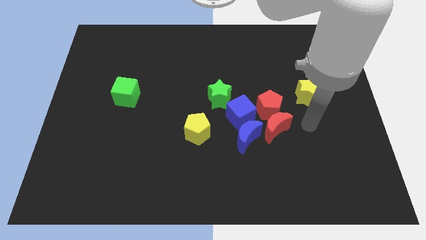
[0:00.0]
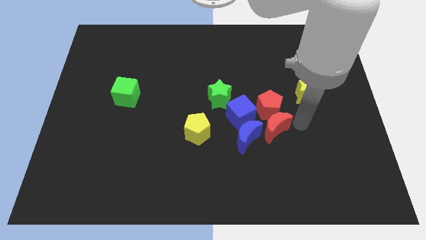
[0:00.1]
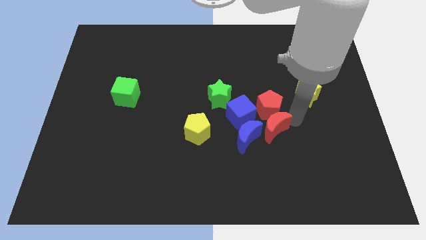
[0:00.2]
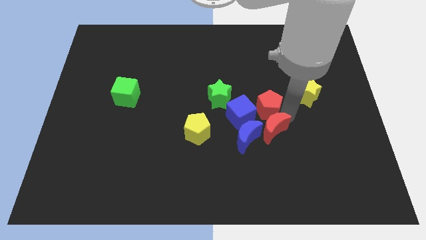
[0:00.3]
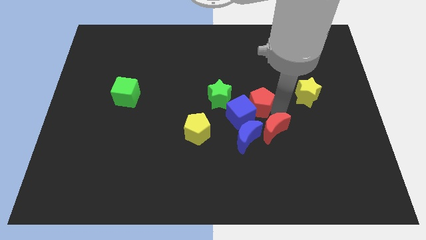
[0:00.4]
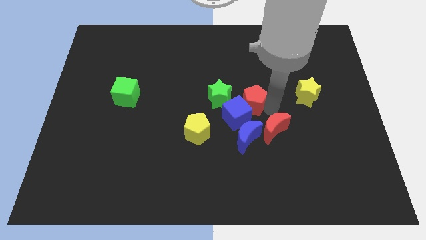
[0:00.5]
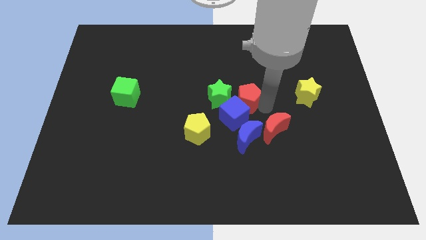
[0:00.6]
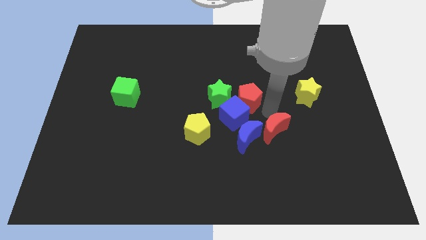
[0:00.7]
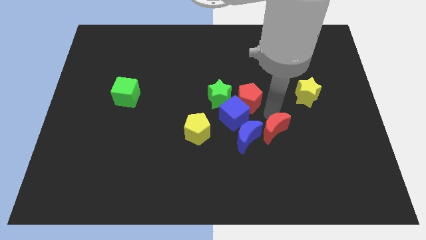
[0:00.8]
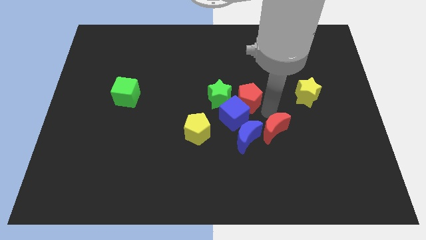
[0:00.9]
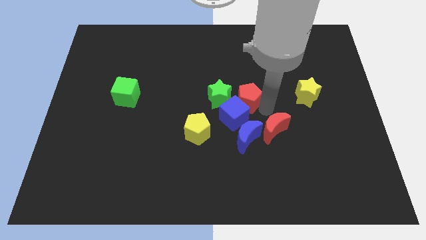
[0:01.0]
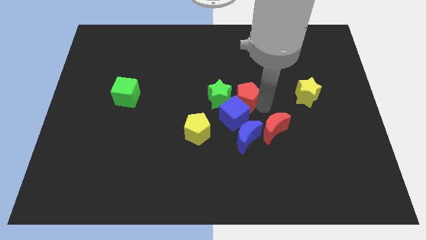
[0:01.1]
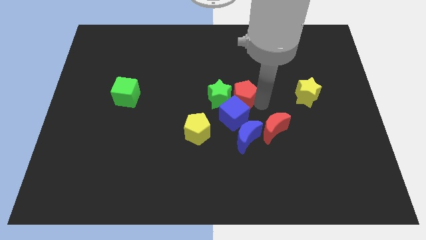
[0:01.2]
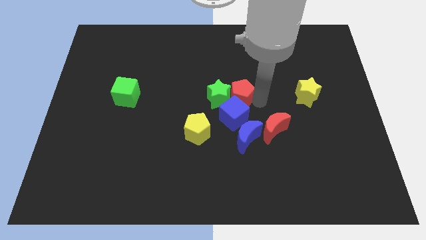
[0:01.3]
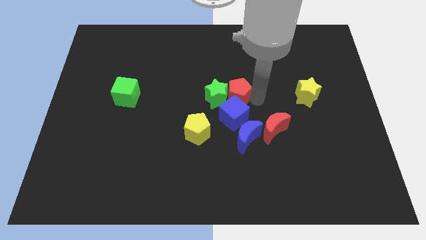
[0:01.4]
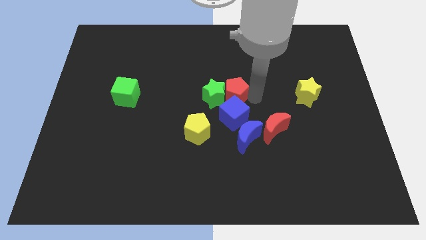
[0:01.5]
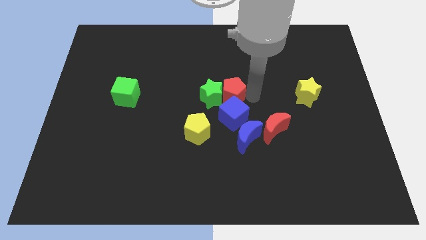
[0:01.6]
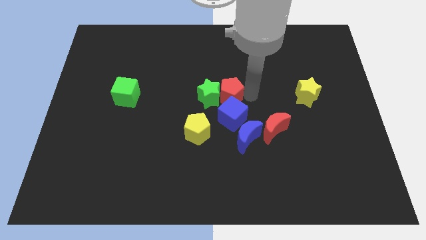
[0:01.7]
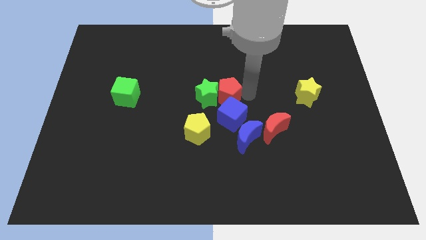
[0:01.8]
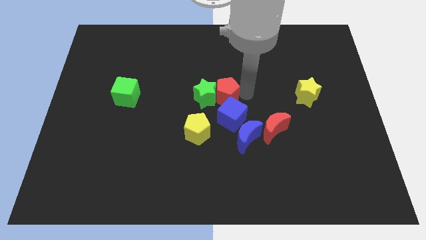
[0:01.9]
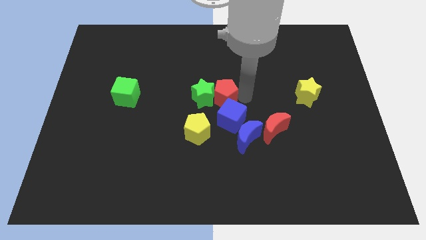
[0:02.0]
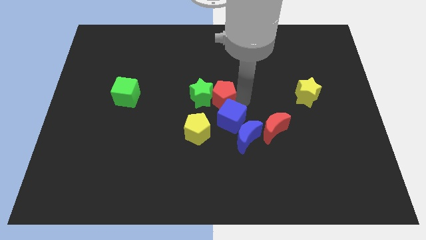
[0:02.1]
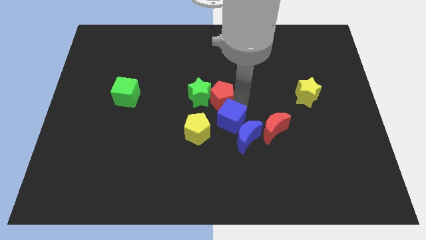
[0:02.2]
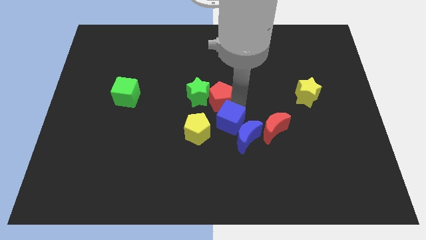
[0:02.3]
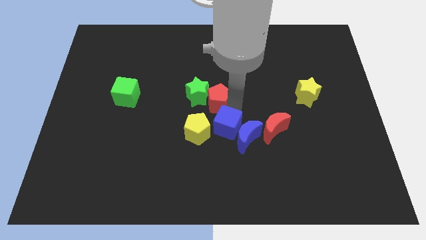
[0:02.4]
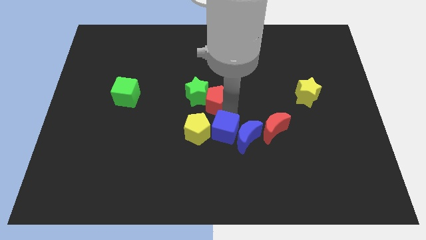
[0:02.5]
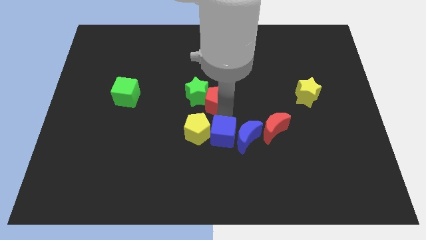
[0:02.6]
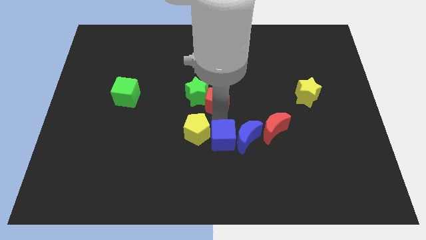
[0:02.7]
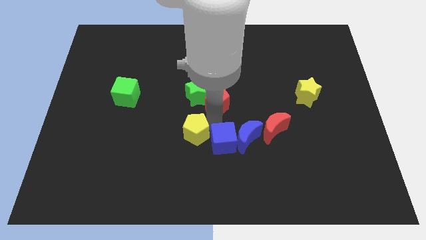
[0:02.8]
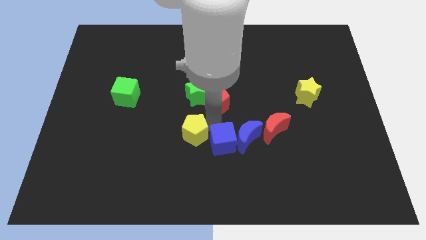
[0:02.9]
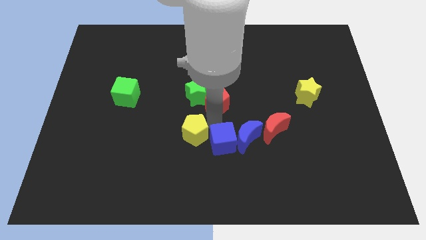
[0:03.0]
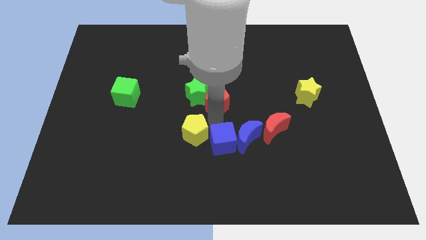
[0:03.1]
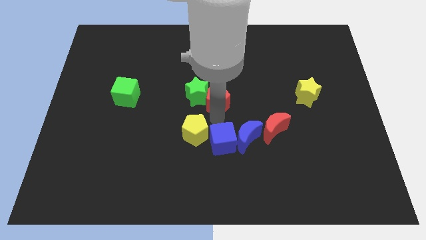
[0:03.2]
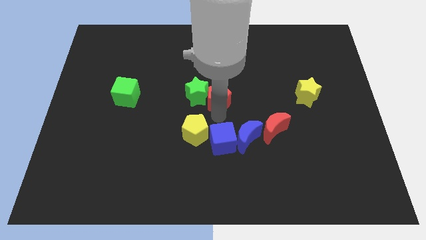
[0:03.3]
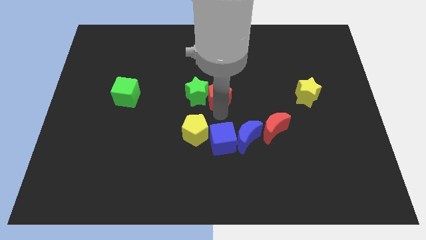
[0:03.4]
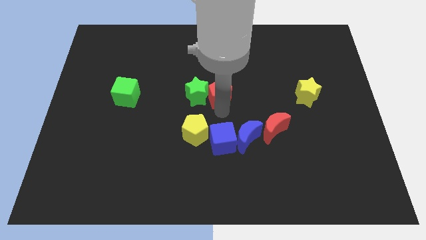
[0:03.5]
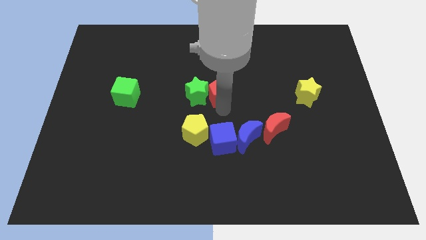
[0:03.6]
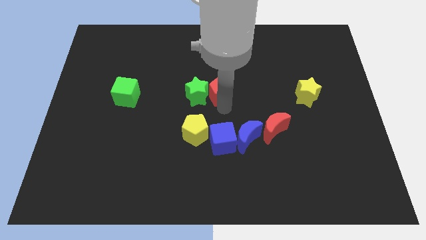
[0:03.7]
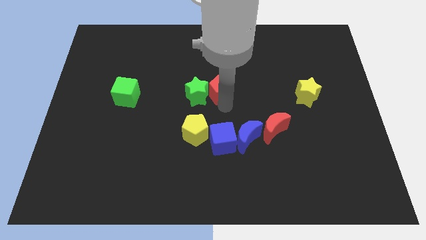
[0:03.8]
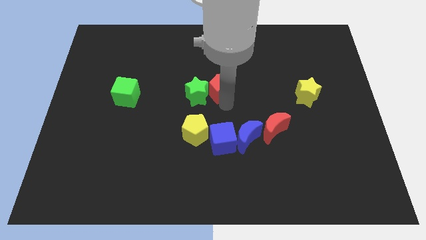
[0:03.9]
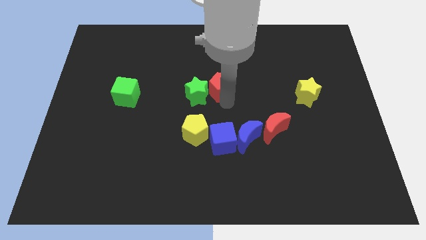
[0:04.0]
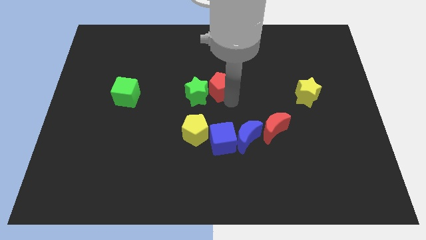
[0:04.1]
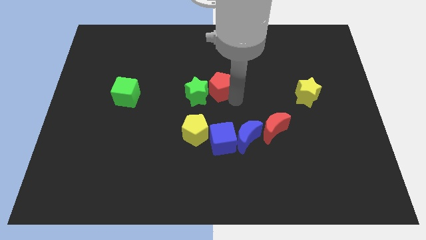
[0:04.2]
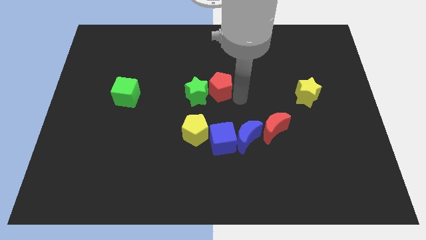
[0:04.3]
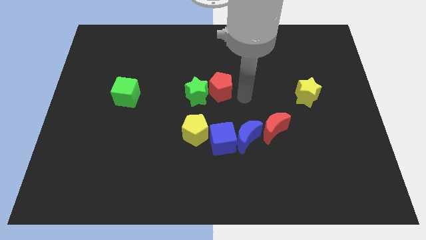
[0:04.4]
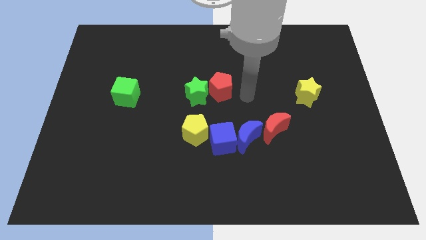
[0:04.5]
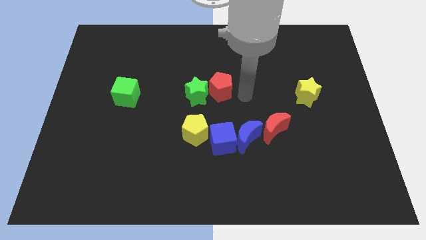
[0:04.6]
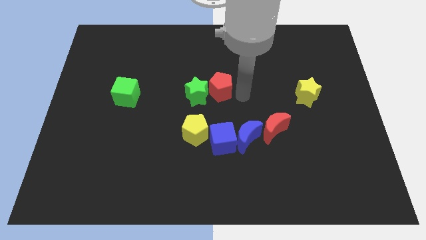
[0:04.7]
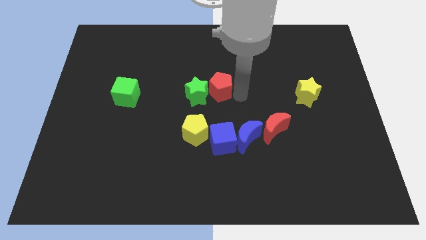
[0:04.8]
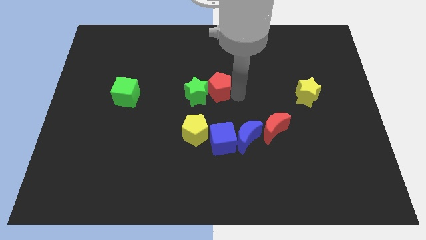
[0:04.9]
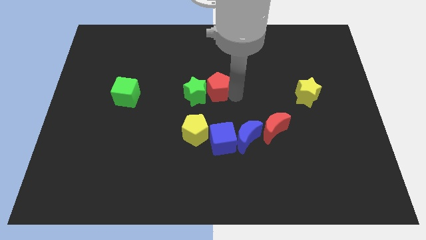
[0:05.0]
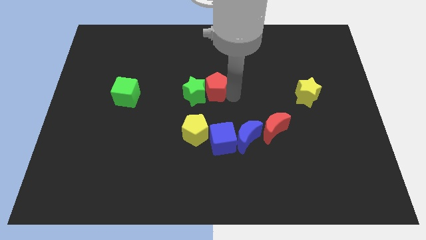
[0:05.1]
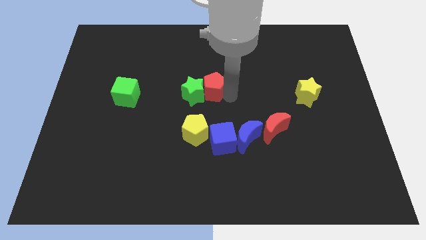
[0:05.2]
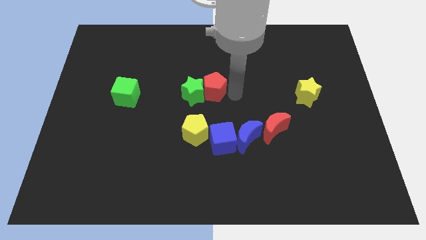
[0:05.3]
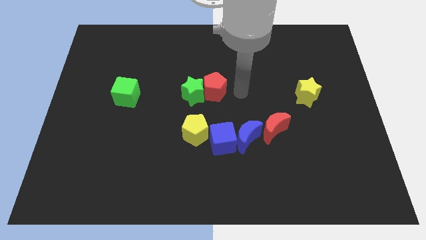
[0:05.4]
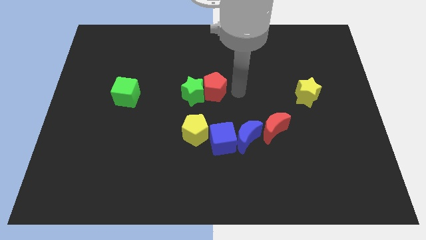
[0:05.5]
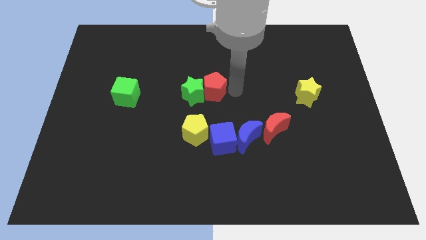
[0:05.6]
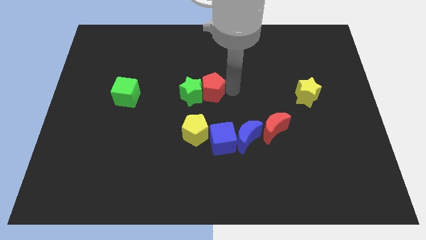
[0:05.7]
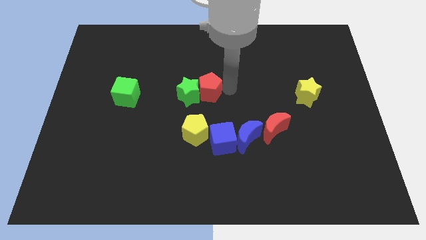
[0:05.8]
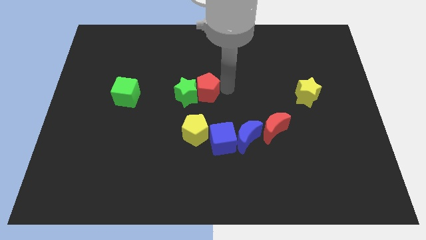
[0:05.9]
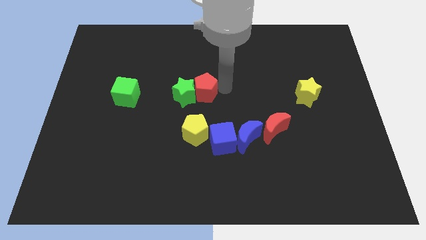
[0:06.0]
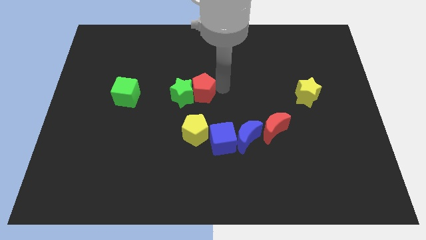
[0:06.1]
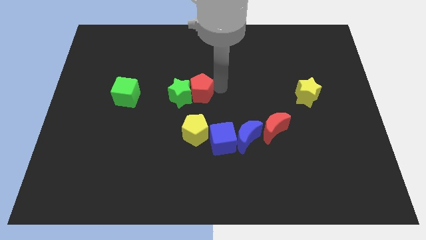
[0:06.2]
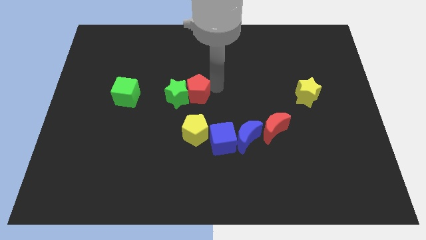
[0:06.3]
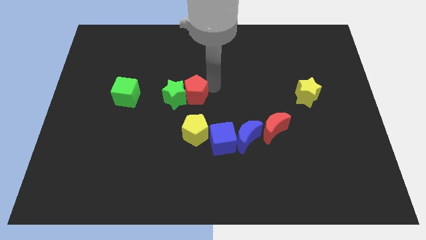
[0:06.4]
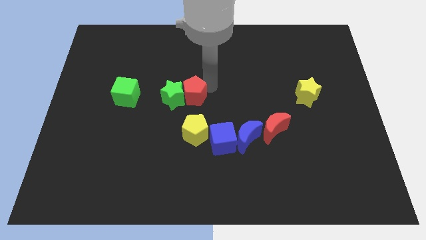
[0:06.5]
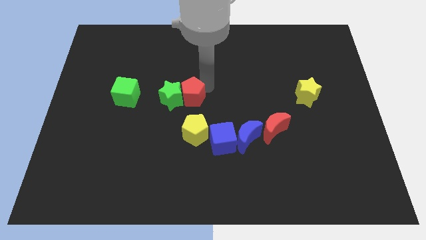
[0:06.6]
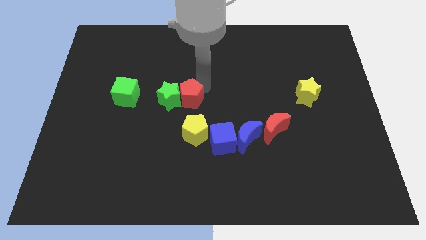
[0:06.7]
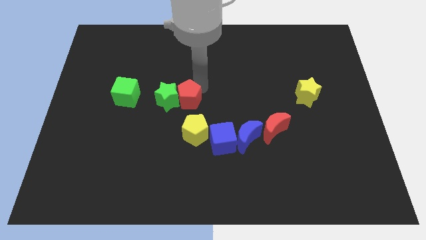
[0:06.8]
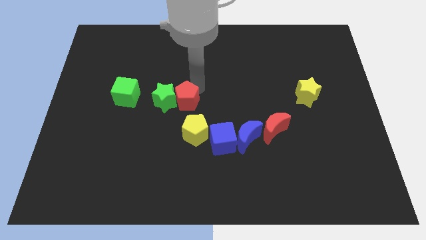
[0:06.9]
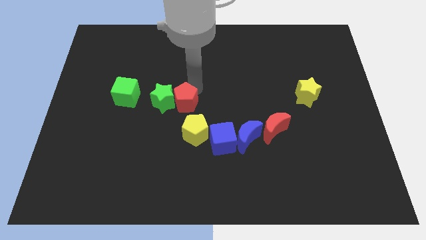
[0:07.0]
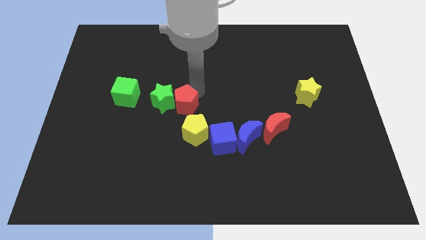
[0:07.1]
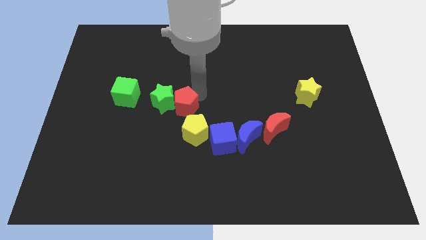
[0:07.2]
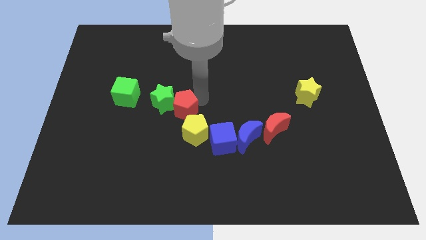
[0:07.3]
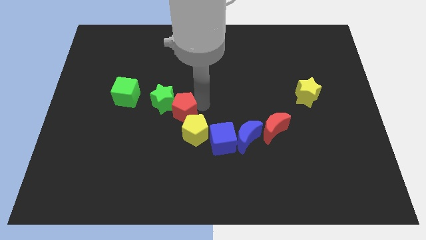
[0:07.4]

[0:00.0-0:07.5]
slide the red pentagon to the left

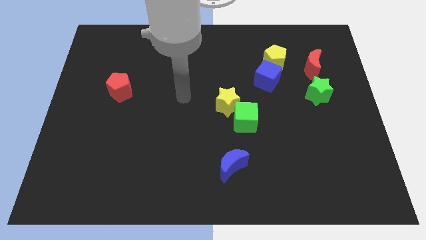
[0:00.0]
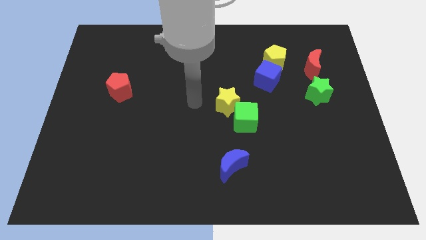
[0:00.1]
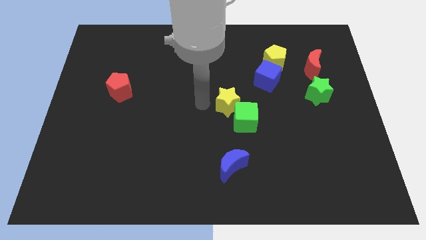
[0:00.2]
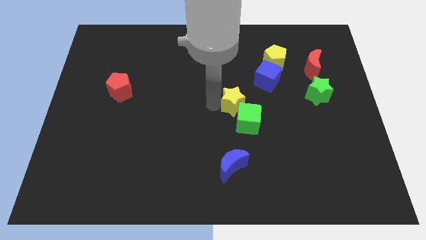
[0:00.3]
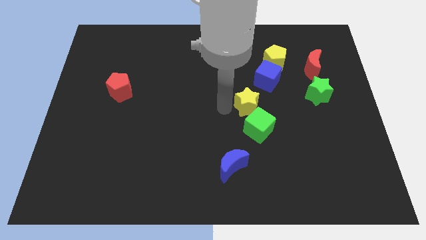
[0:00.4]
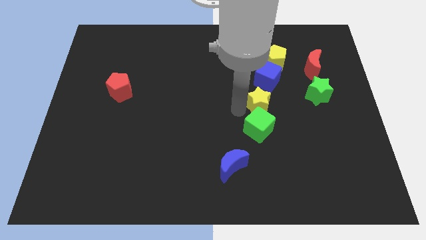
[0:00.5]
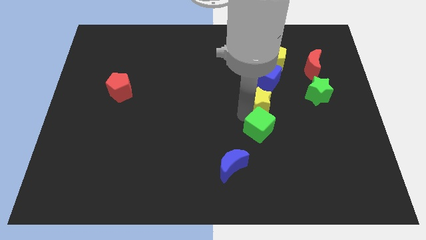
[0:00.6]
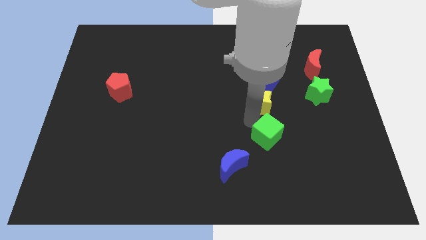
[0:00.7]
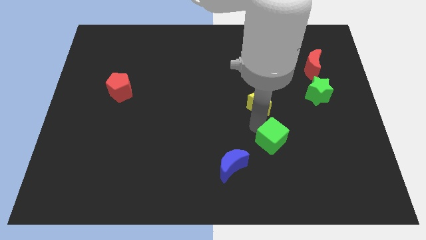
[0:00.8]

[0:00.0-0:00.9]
move the green cube diagonally down and to the right slightly

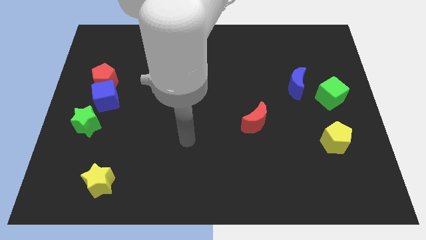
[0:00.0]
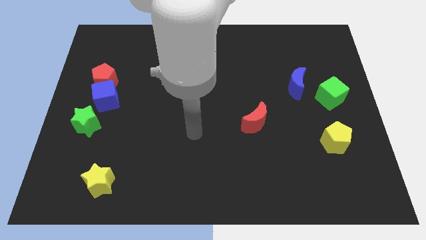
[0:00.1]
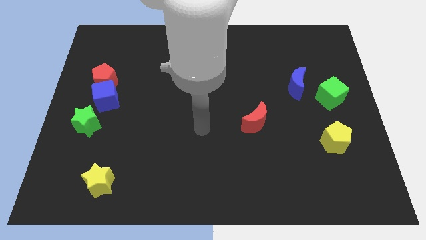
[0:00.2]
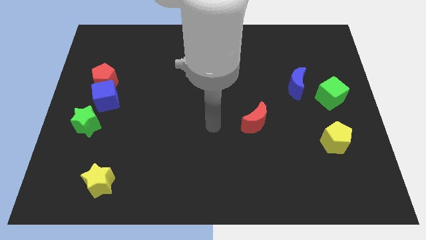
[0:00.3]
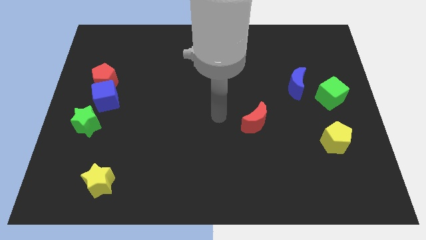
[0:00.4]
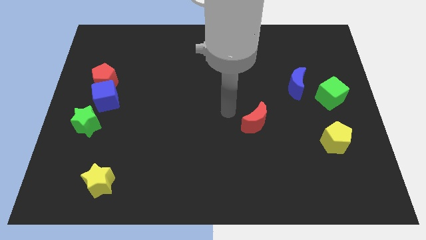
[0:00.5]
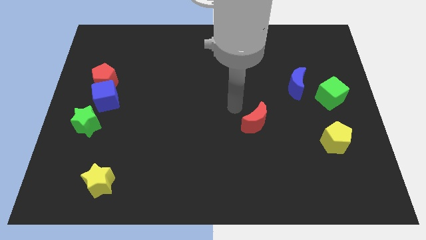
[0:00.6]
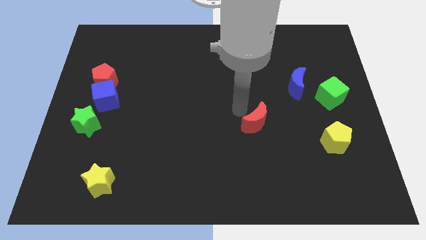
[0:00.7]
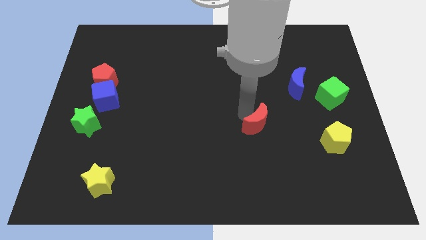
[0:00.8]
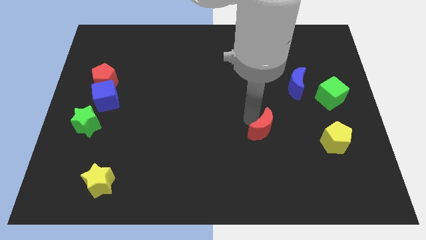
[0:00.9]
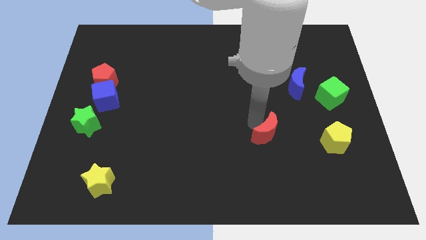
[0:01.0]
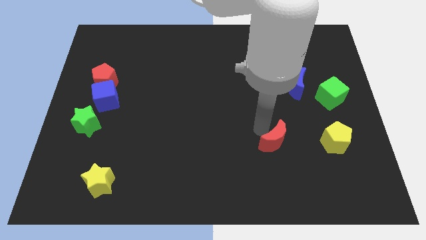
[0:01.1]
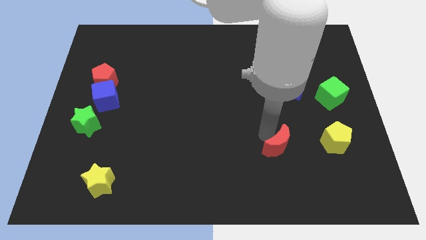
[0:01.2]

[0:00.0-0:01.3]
slightly push the red moon down and to the right diagonally
